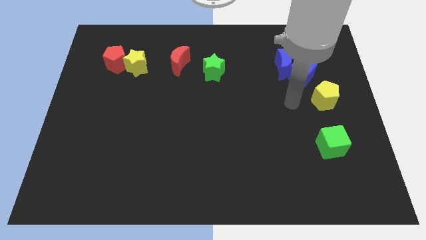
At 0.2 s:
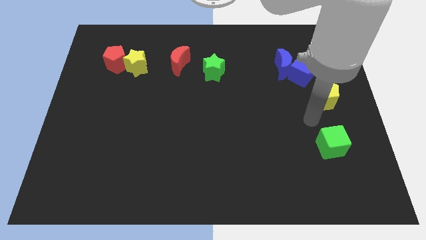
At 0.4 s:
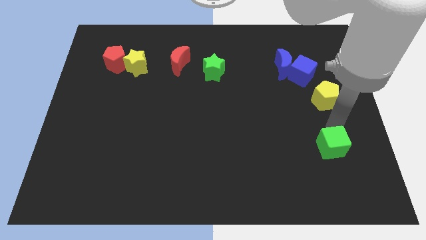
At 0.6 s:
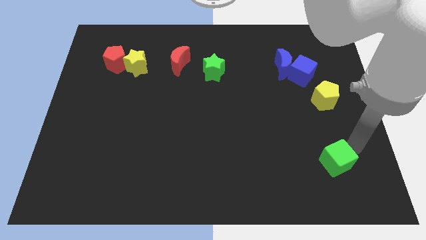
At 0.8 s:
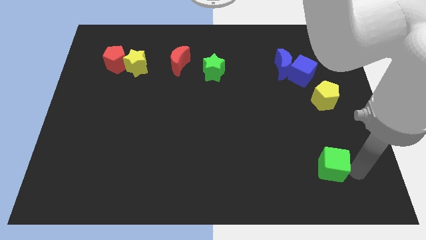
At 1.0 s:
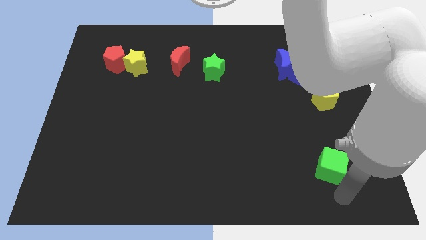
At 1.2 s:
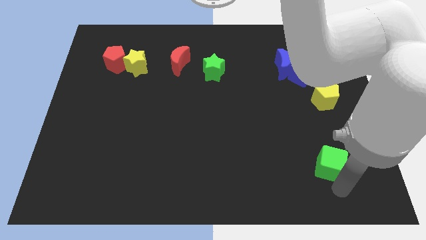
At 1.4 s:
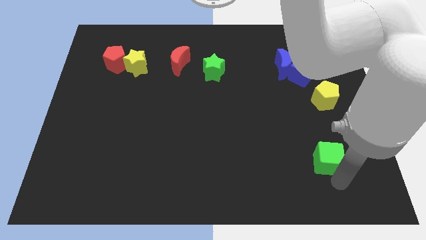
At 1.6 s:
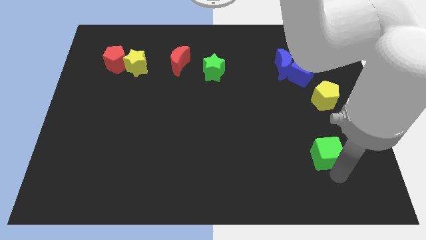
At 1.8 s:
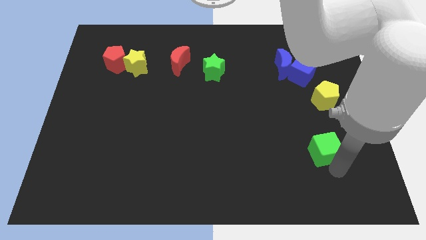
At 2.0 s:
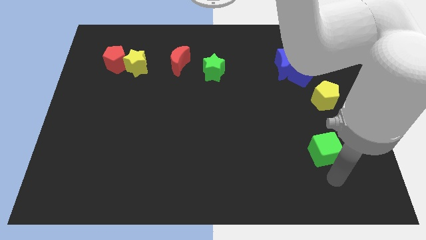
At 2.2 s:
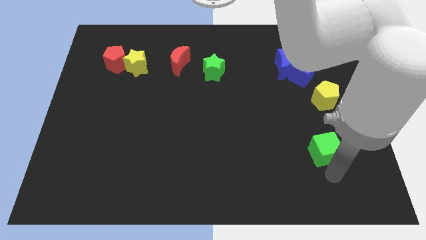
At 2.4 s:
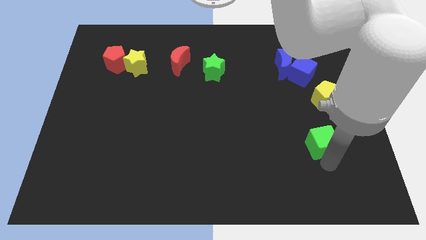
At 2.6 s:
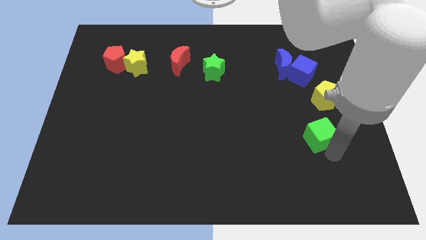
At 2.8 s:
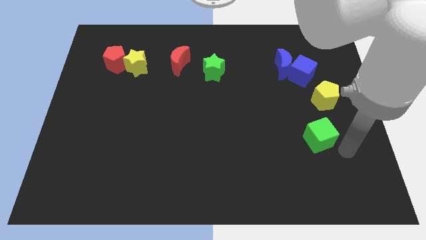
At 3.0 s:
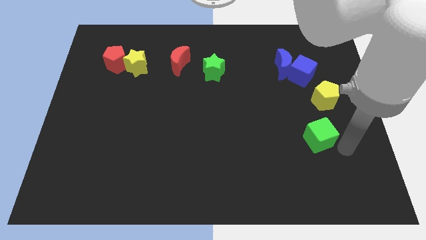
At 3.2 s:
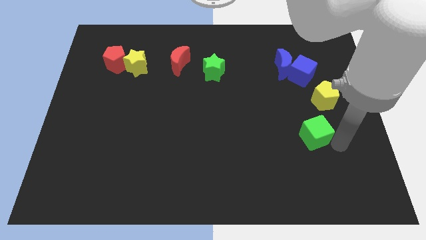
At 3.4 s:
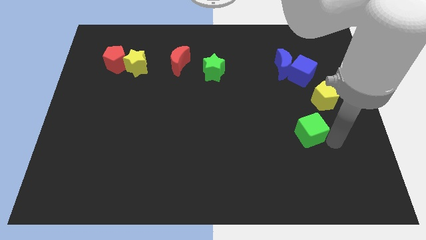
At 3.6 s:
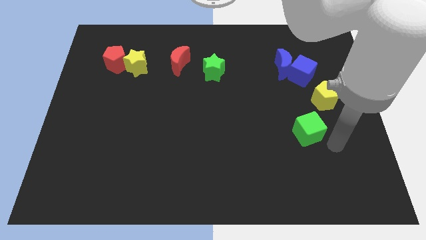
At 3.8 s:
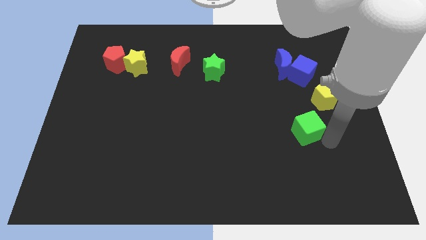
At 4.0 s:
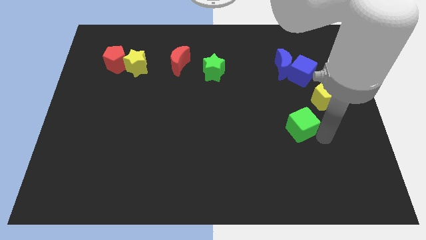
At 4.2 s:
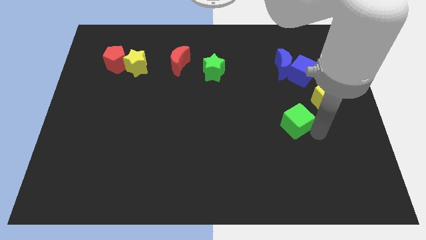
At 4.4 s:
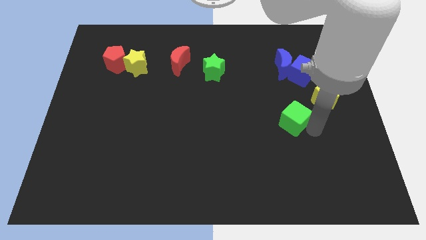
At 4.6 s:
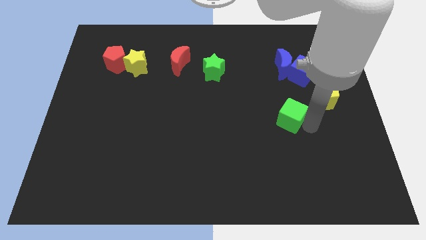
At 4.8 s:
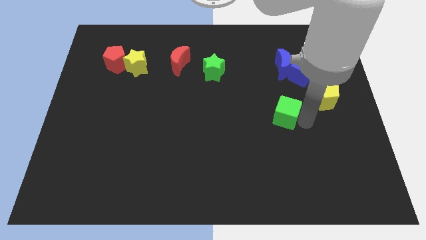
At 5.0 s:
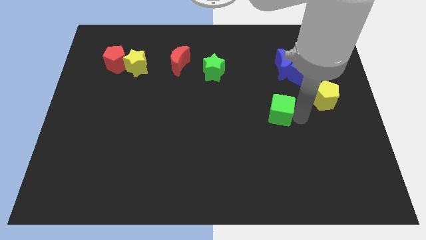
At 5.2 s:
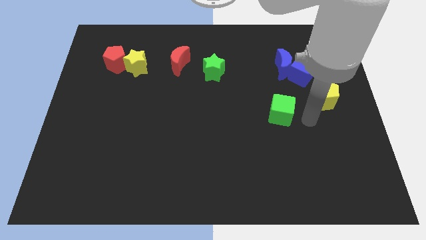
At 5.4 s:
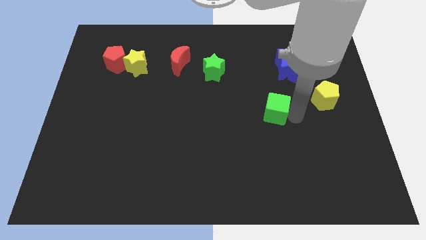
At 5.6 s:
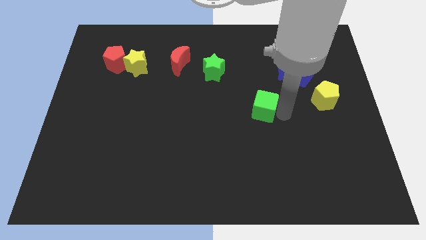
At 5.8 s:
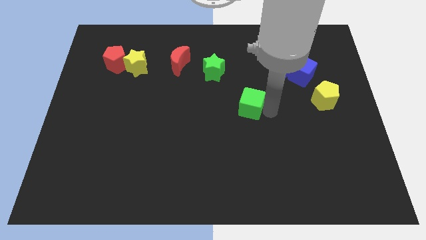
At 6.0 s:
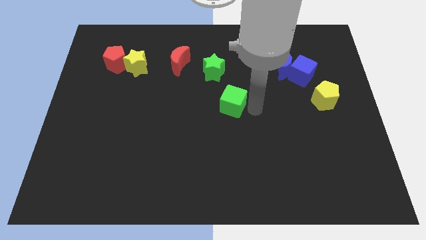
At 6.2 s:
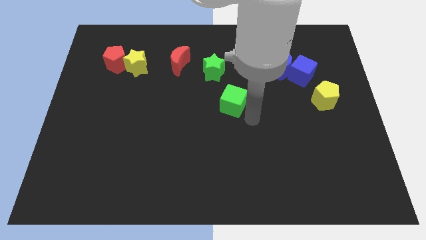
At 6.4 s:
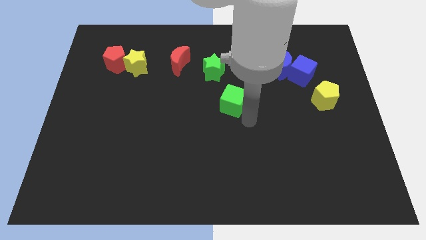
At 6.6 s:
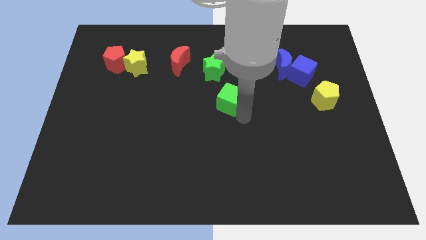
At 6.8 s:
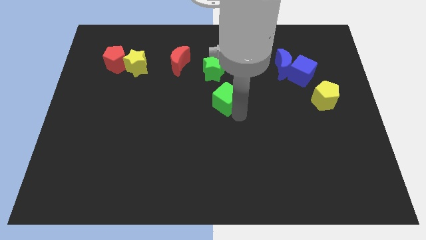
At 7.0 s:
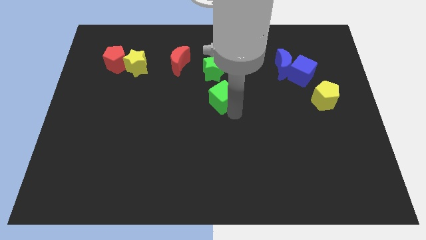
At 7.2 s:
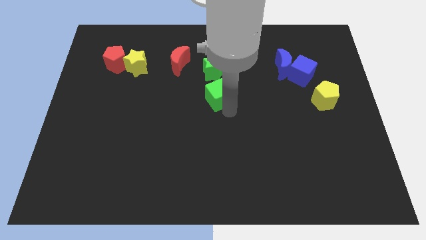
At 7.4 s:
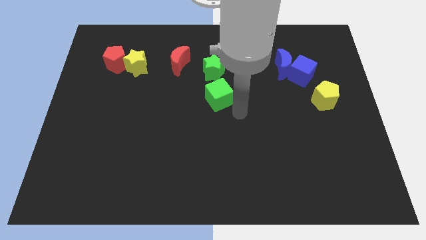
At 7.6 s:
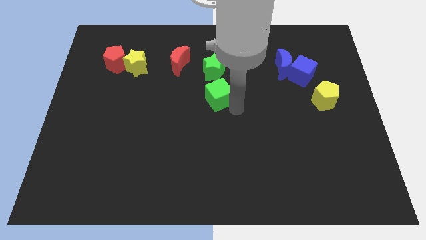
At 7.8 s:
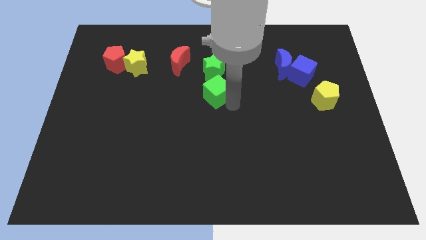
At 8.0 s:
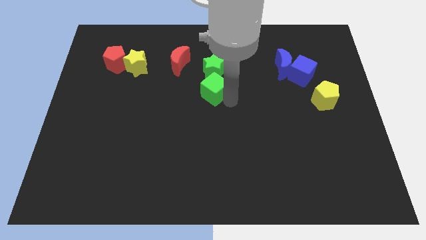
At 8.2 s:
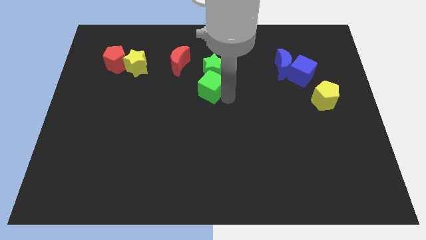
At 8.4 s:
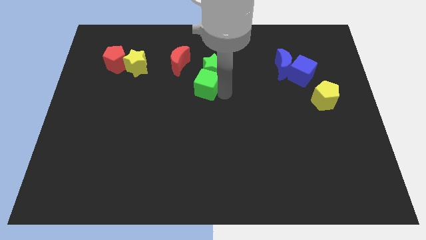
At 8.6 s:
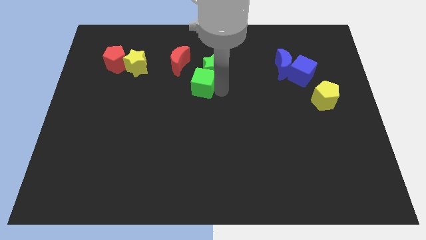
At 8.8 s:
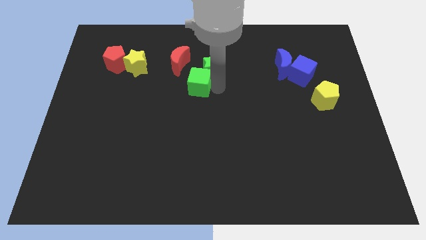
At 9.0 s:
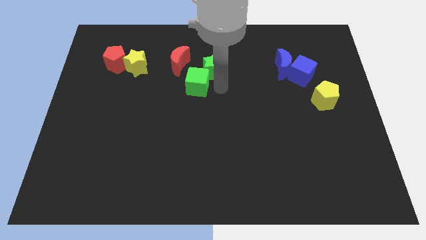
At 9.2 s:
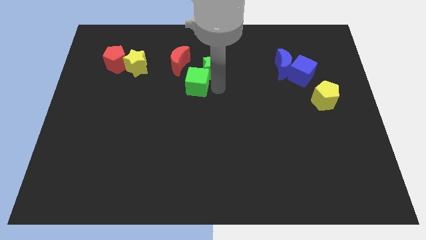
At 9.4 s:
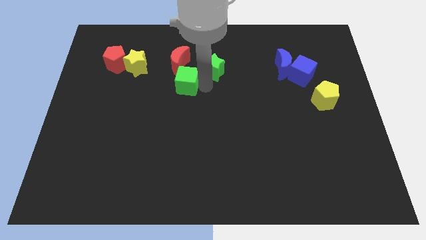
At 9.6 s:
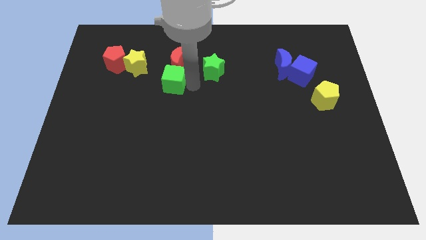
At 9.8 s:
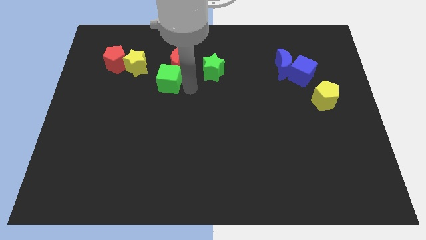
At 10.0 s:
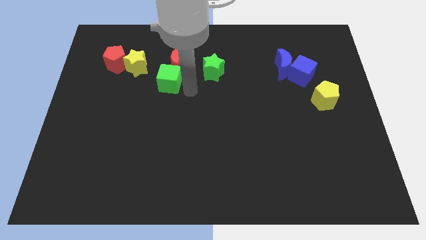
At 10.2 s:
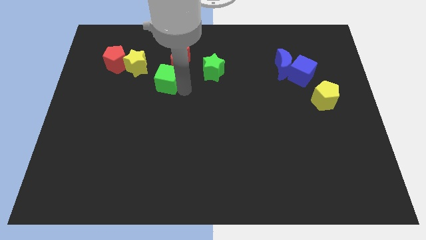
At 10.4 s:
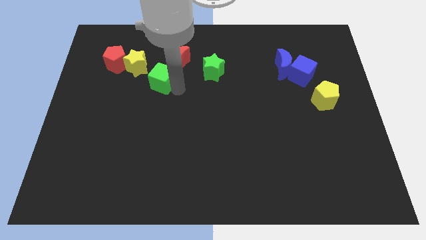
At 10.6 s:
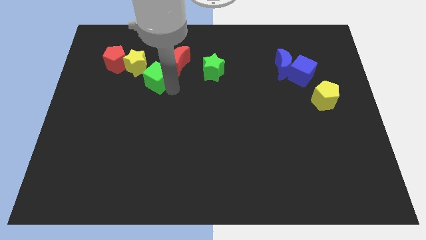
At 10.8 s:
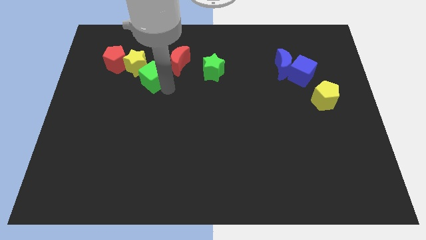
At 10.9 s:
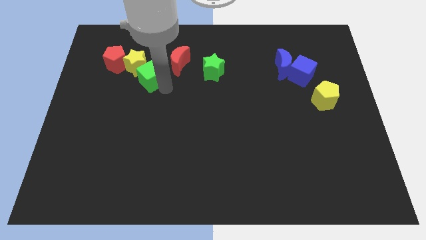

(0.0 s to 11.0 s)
slide the green cube next to the yellow star

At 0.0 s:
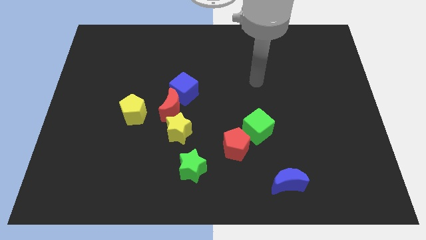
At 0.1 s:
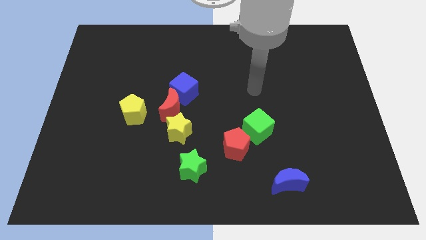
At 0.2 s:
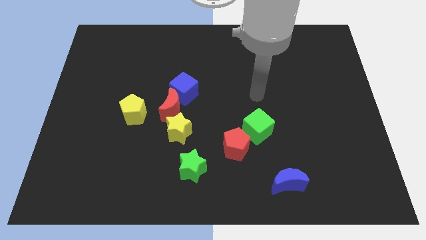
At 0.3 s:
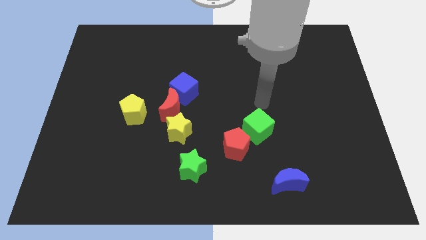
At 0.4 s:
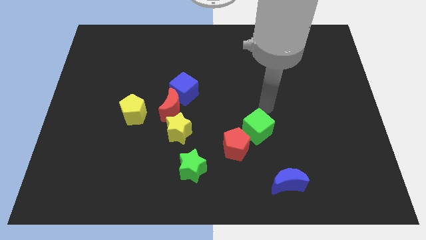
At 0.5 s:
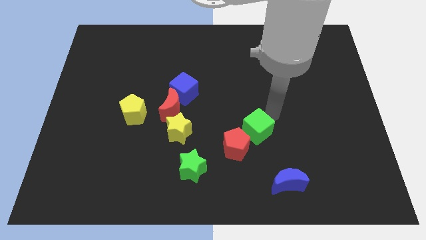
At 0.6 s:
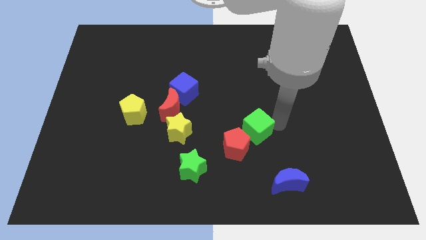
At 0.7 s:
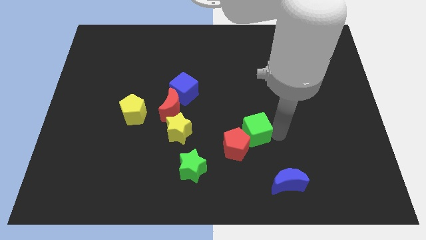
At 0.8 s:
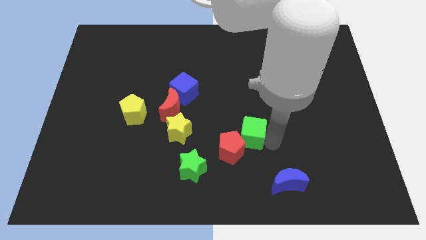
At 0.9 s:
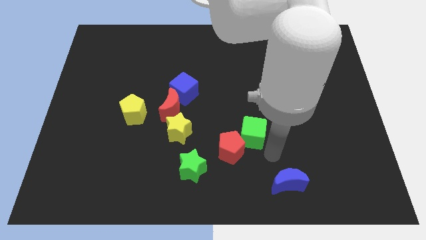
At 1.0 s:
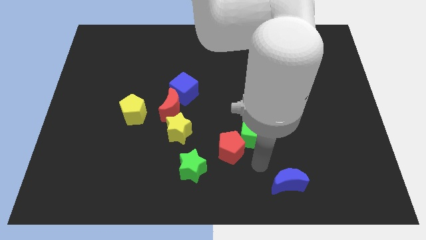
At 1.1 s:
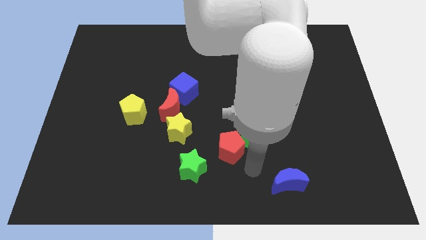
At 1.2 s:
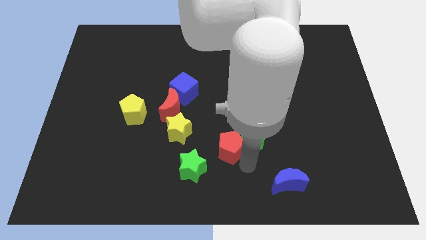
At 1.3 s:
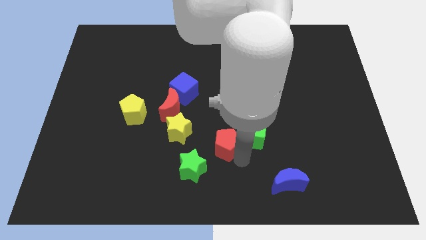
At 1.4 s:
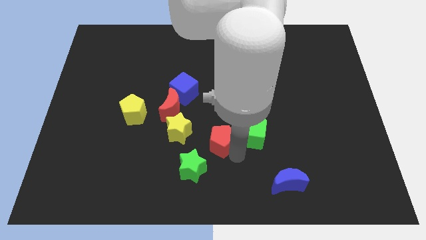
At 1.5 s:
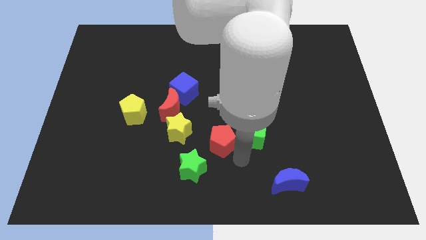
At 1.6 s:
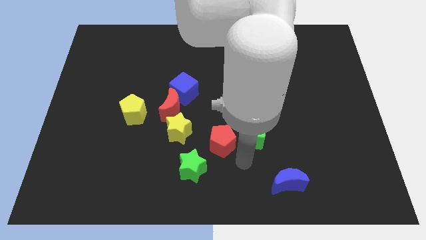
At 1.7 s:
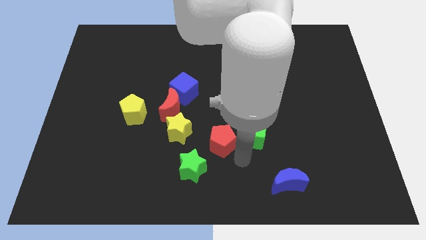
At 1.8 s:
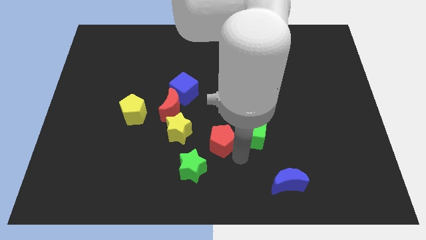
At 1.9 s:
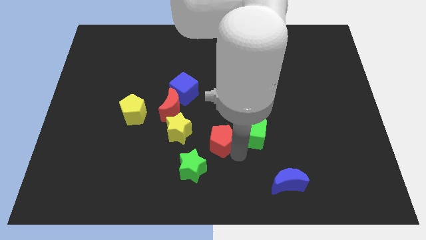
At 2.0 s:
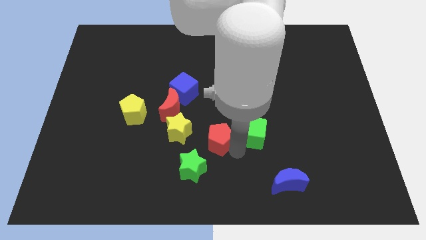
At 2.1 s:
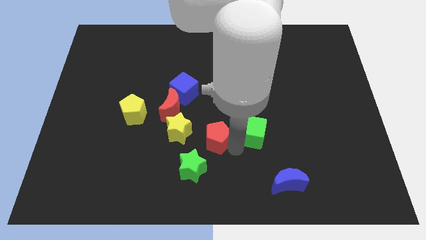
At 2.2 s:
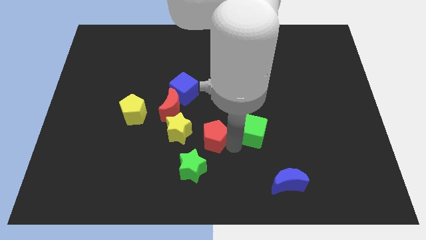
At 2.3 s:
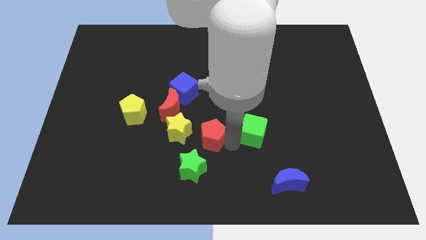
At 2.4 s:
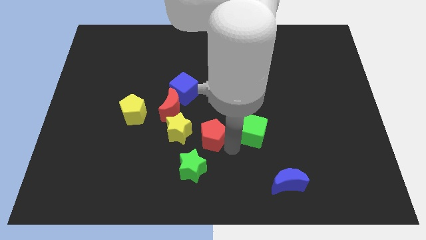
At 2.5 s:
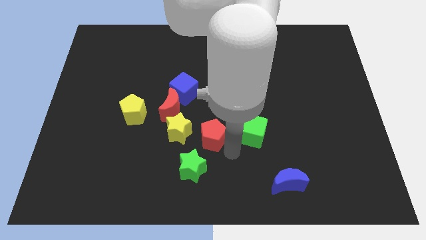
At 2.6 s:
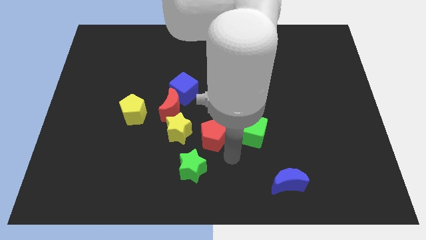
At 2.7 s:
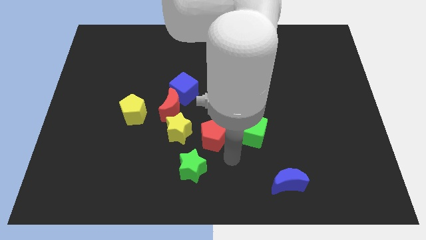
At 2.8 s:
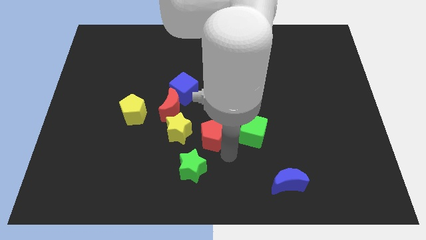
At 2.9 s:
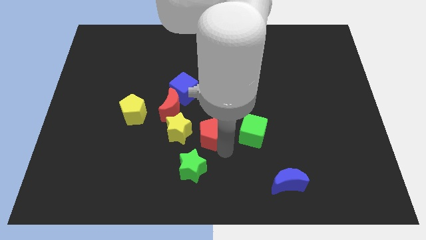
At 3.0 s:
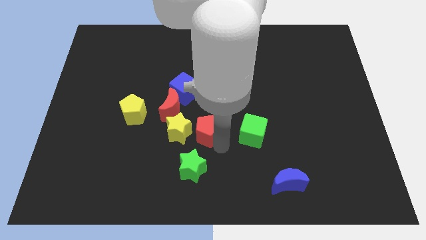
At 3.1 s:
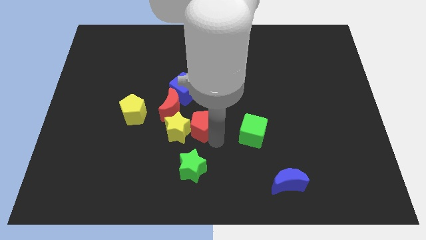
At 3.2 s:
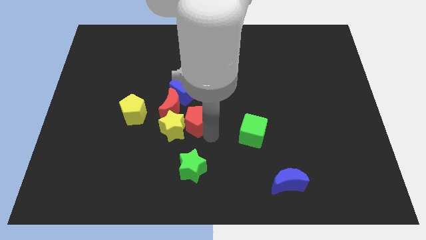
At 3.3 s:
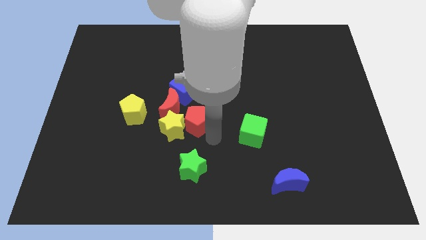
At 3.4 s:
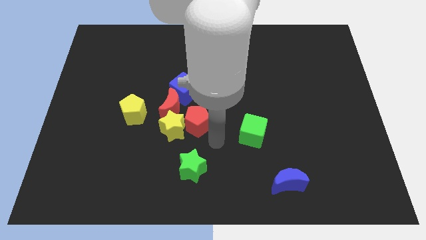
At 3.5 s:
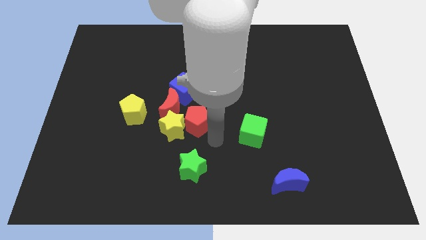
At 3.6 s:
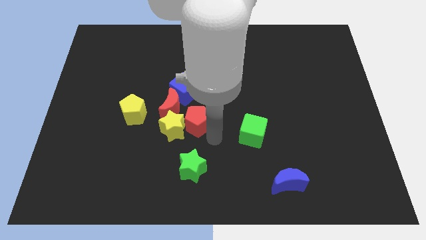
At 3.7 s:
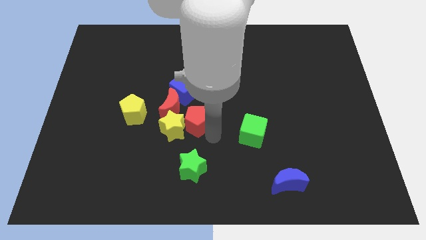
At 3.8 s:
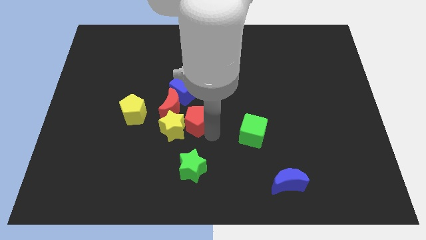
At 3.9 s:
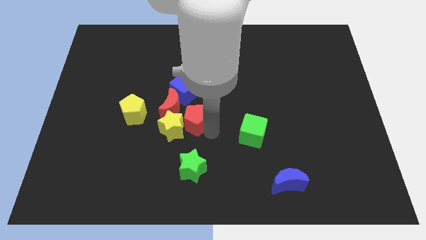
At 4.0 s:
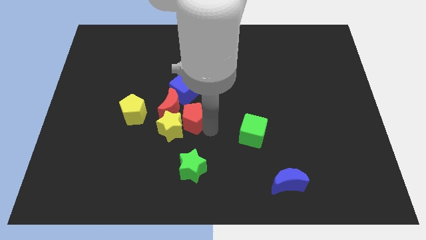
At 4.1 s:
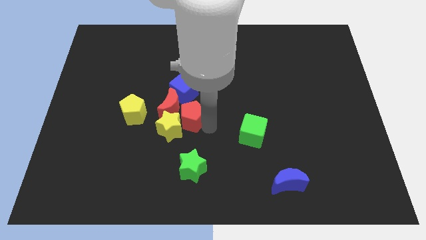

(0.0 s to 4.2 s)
put the red pentagon towards the red moon
